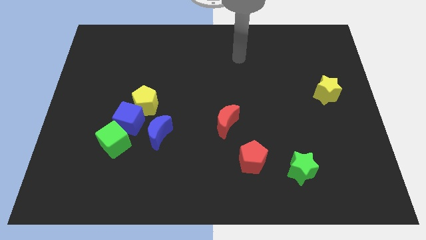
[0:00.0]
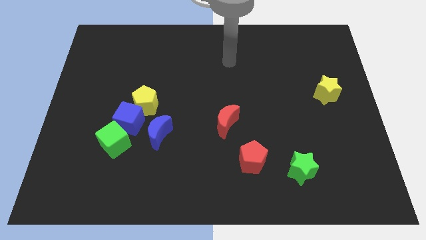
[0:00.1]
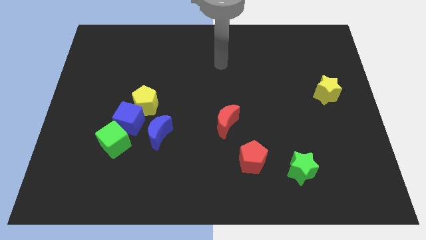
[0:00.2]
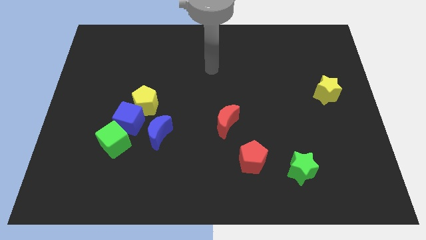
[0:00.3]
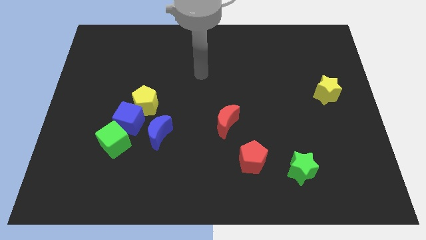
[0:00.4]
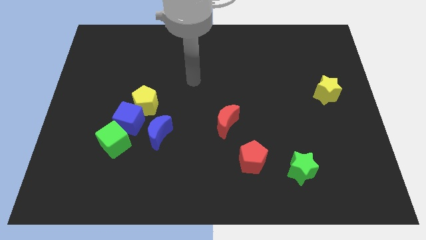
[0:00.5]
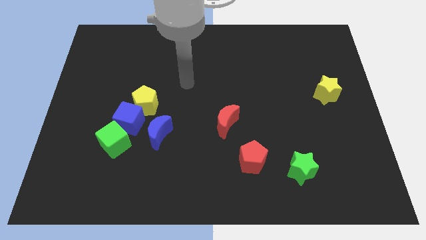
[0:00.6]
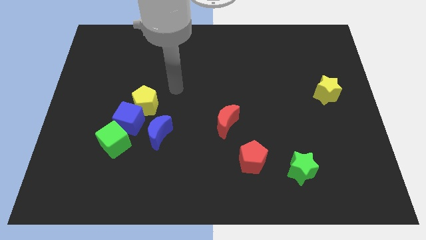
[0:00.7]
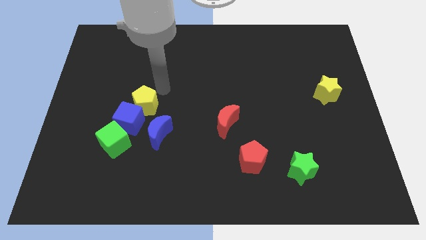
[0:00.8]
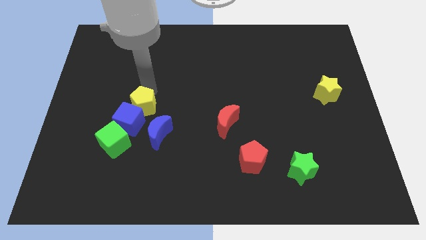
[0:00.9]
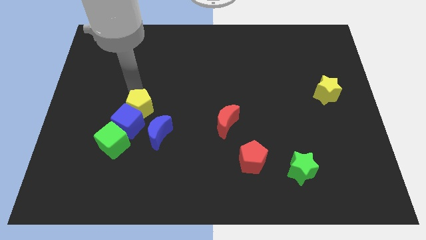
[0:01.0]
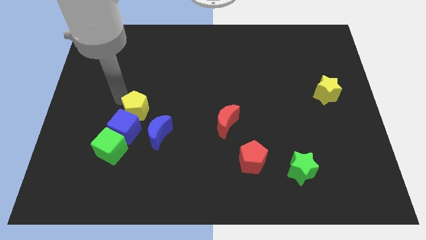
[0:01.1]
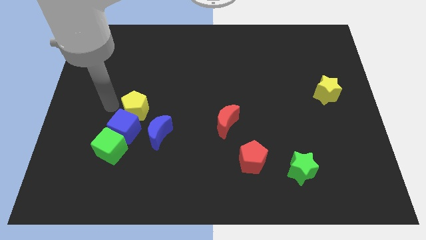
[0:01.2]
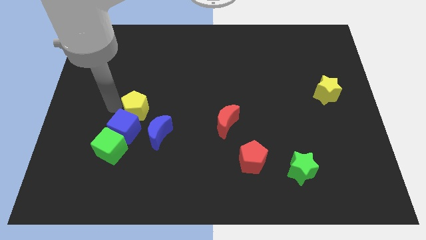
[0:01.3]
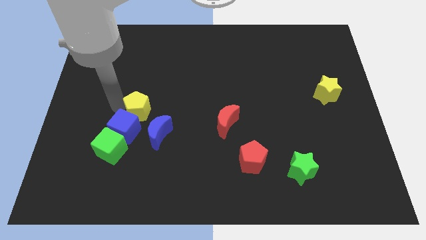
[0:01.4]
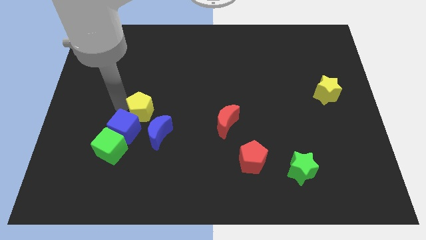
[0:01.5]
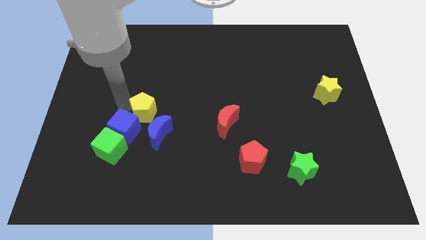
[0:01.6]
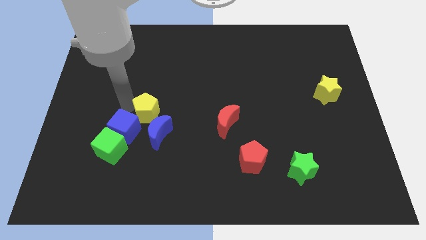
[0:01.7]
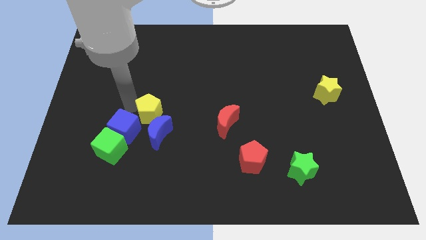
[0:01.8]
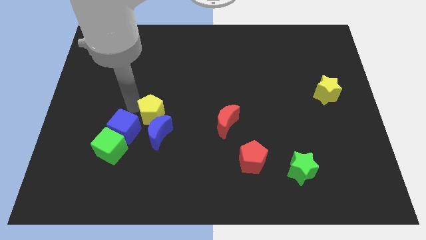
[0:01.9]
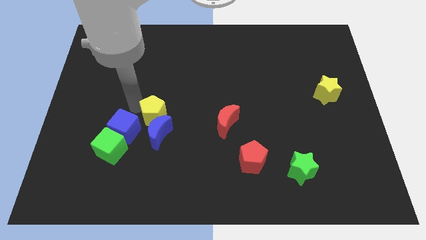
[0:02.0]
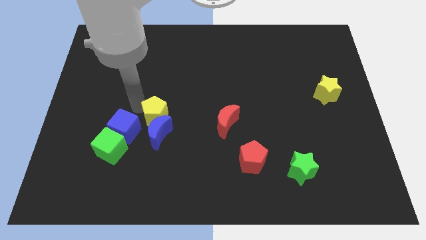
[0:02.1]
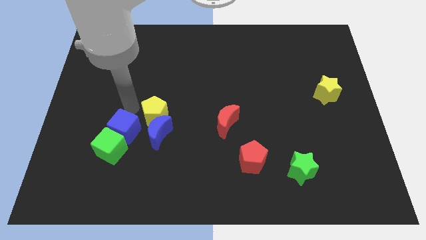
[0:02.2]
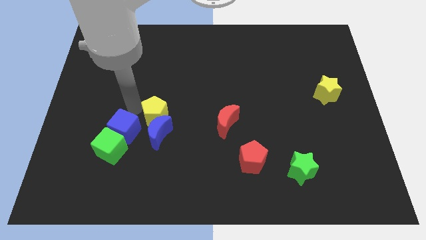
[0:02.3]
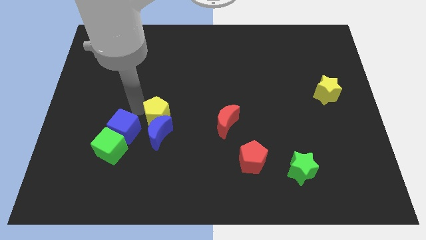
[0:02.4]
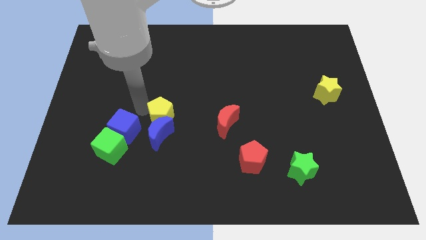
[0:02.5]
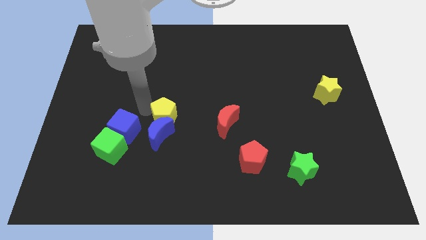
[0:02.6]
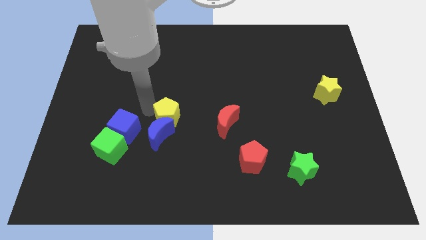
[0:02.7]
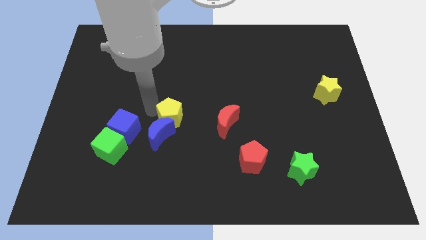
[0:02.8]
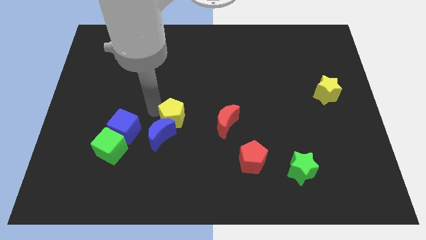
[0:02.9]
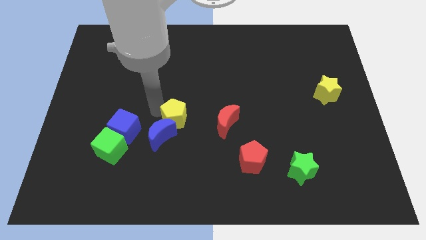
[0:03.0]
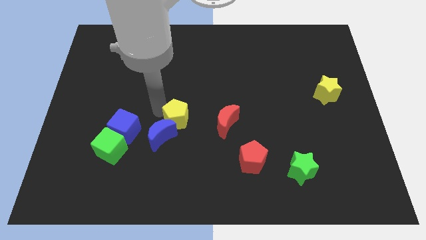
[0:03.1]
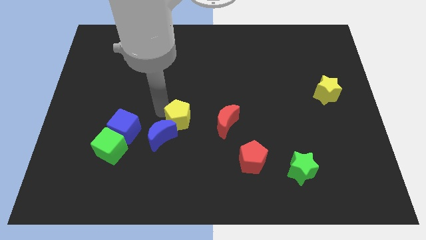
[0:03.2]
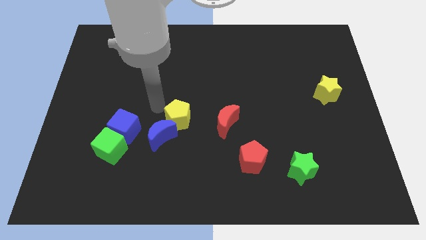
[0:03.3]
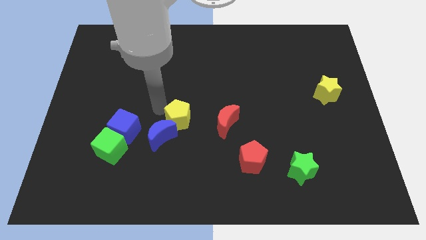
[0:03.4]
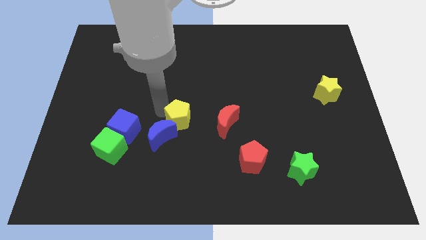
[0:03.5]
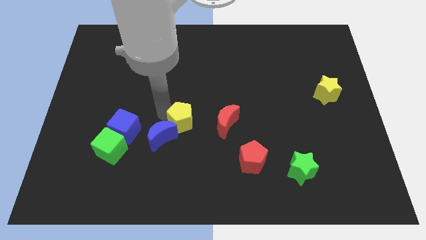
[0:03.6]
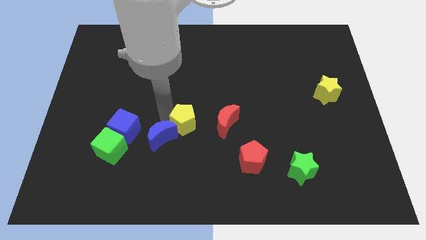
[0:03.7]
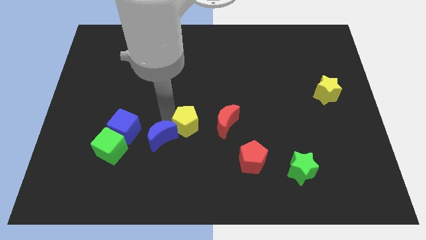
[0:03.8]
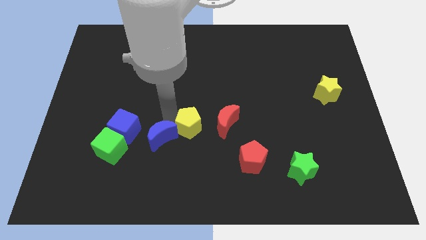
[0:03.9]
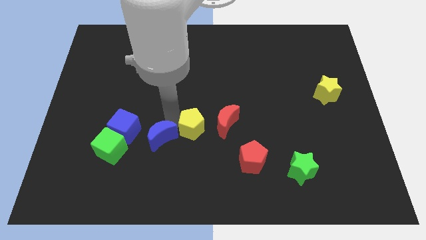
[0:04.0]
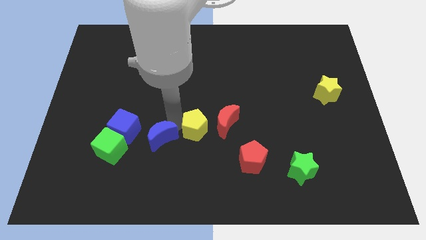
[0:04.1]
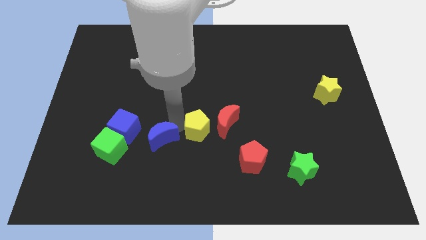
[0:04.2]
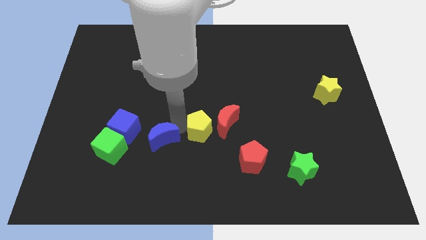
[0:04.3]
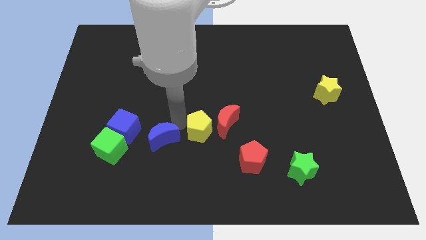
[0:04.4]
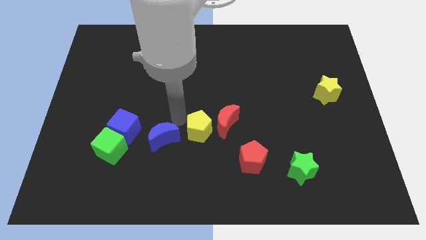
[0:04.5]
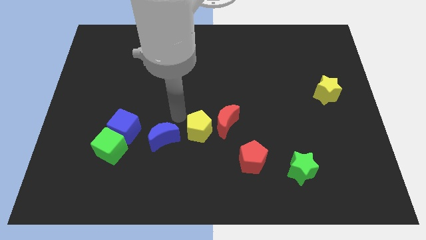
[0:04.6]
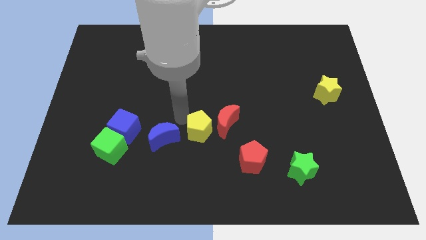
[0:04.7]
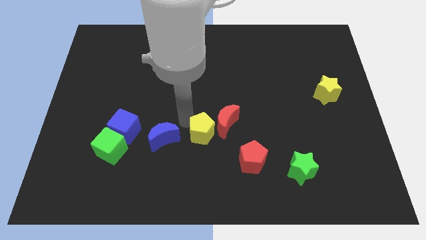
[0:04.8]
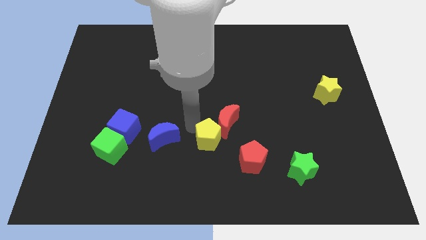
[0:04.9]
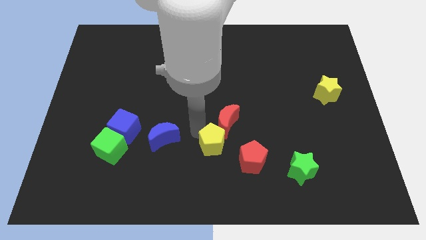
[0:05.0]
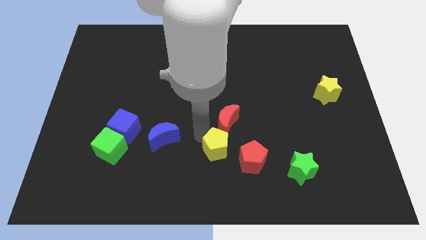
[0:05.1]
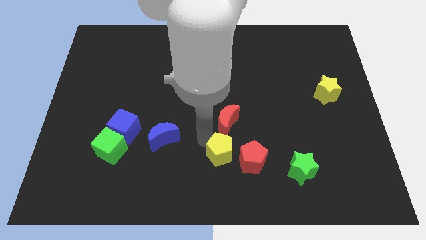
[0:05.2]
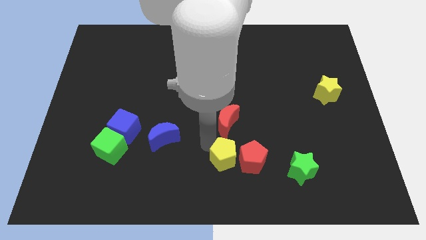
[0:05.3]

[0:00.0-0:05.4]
slide the yellow pentagon close to the red pentagon

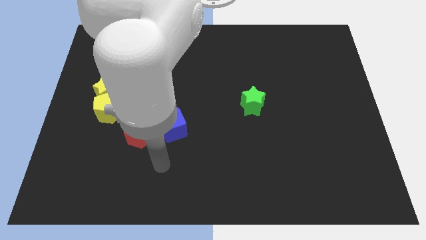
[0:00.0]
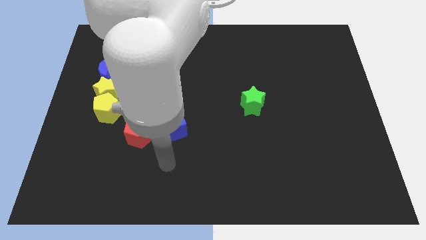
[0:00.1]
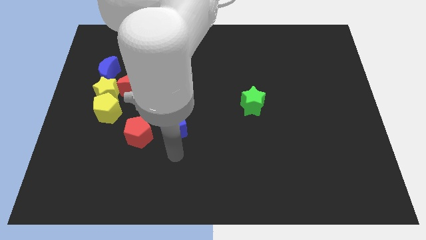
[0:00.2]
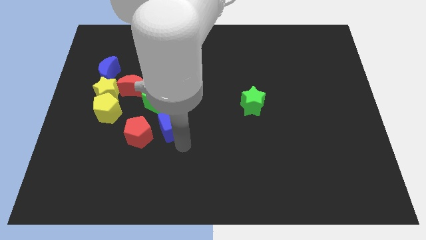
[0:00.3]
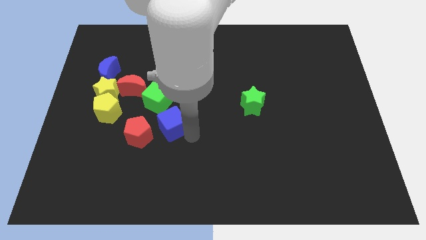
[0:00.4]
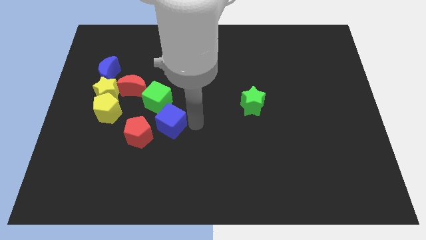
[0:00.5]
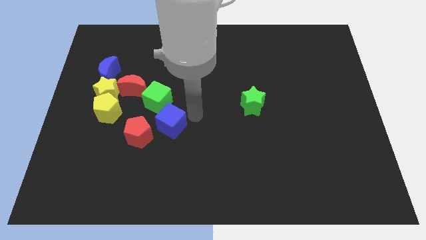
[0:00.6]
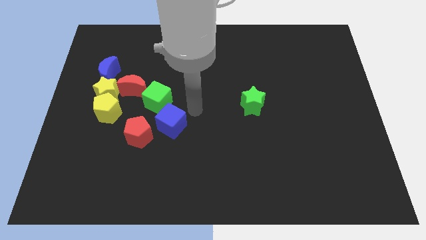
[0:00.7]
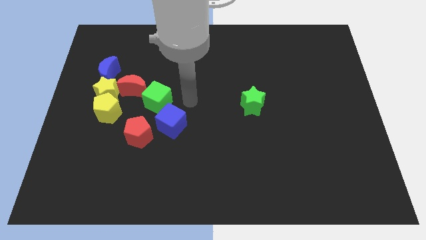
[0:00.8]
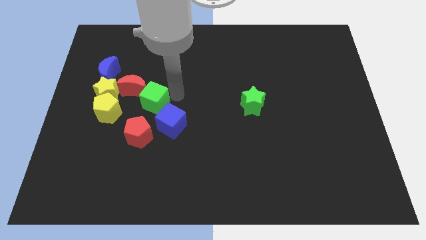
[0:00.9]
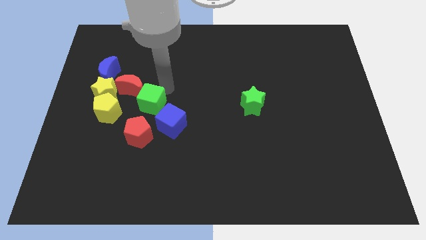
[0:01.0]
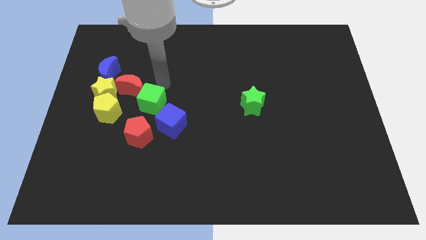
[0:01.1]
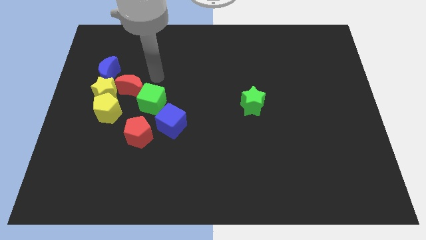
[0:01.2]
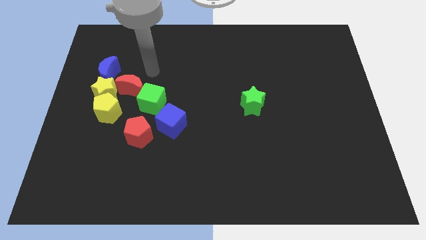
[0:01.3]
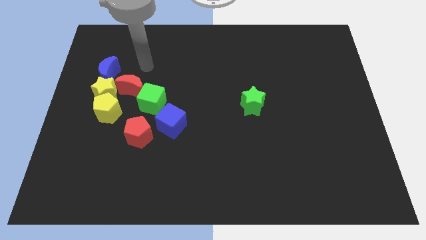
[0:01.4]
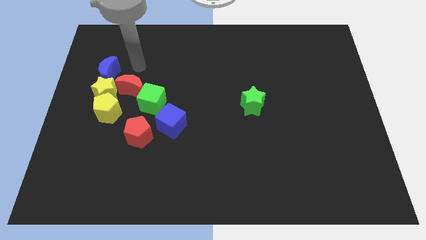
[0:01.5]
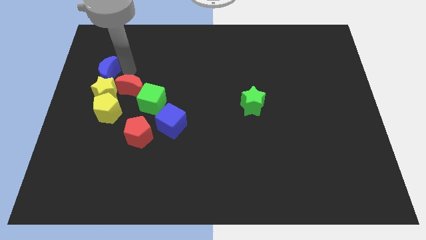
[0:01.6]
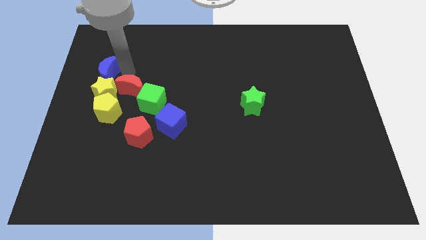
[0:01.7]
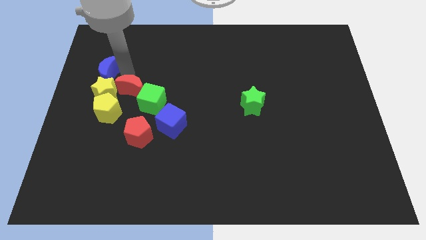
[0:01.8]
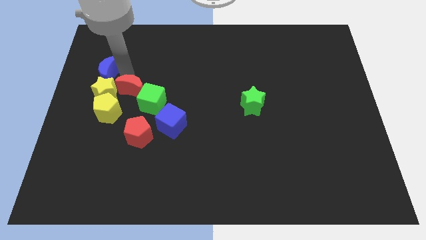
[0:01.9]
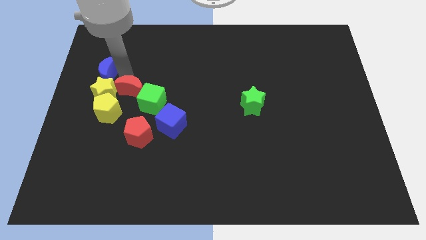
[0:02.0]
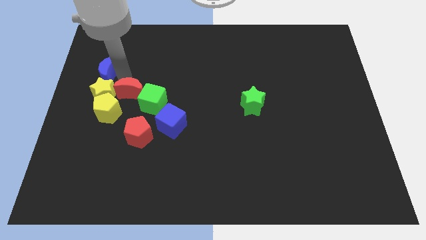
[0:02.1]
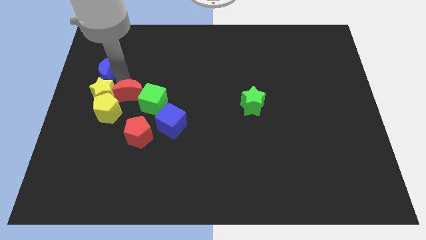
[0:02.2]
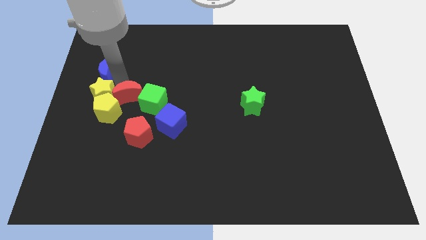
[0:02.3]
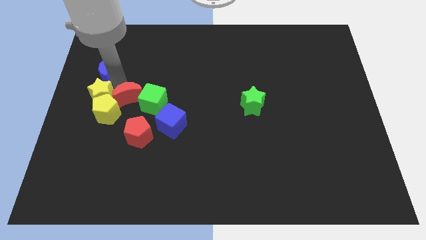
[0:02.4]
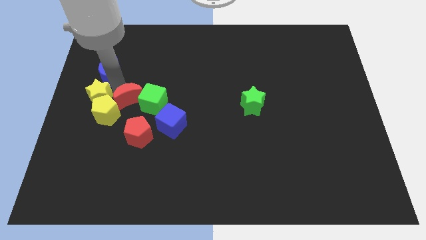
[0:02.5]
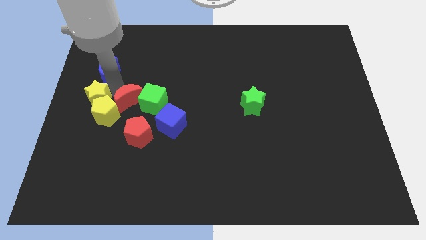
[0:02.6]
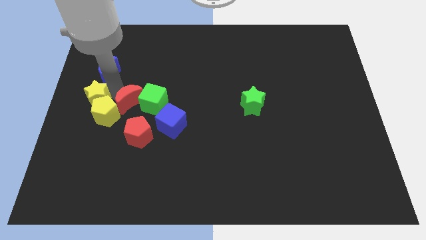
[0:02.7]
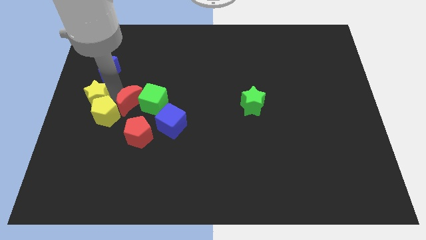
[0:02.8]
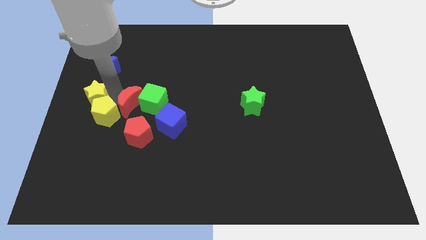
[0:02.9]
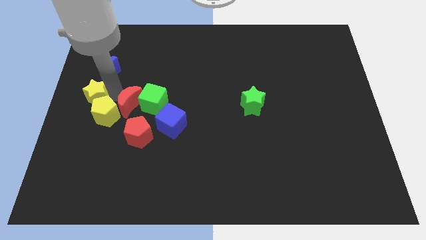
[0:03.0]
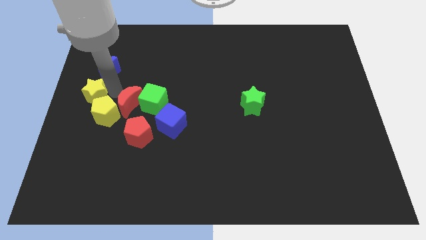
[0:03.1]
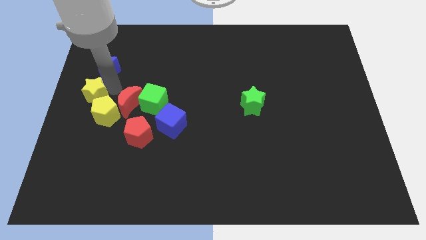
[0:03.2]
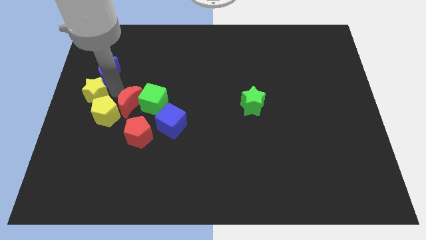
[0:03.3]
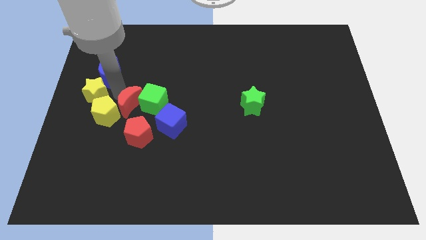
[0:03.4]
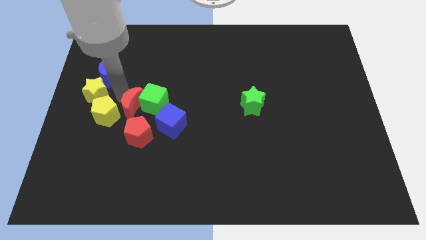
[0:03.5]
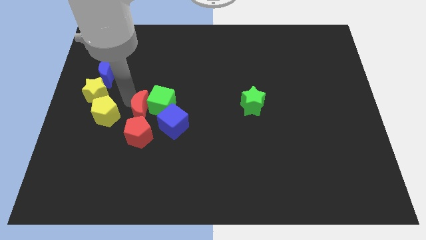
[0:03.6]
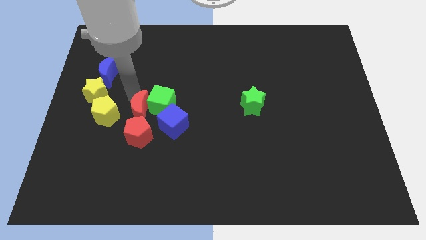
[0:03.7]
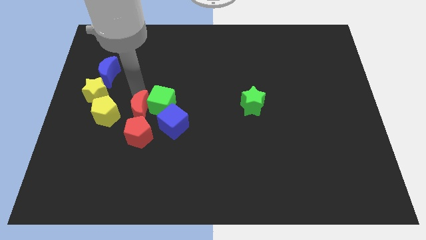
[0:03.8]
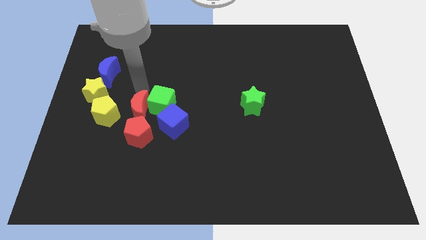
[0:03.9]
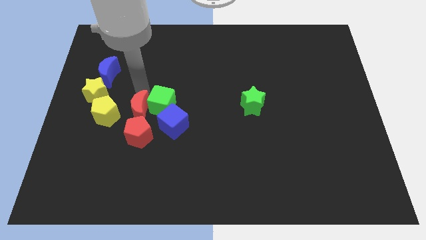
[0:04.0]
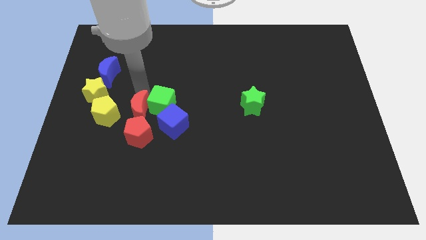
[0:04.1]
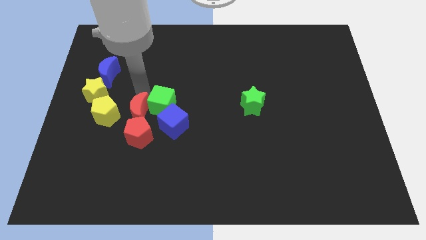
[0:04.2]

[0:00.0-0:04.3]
move the red moon towards the red pentagon
